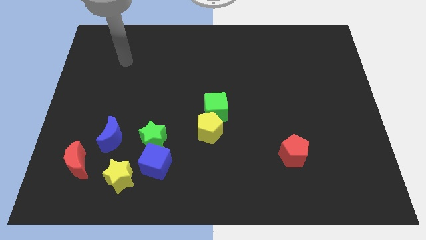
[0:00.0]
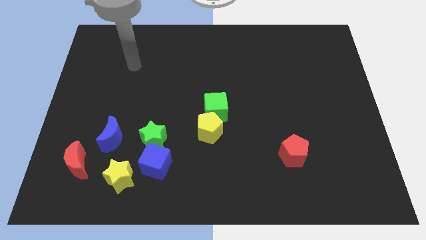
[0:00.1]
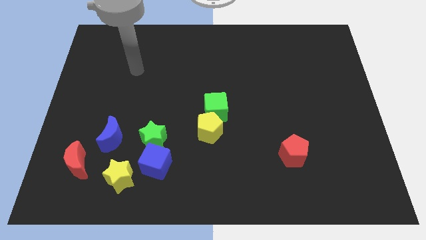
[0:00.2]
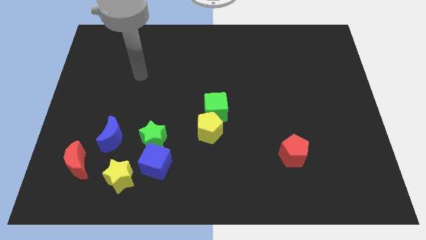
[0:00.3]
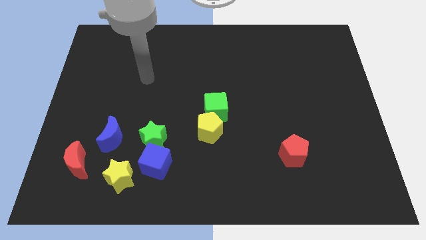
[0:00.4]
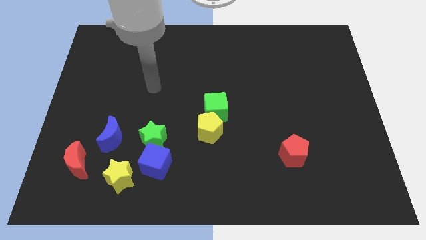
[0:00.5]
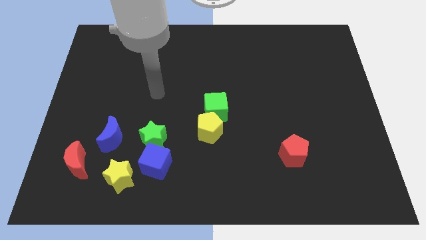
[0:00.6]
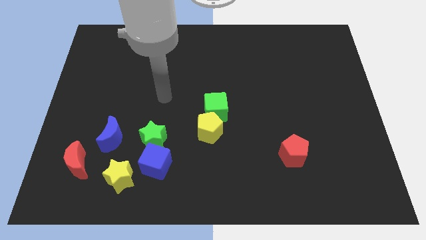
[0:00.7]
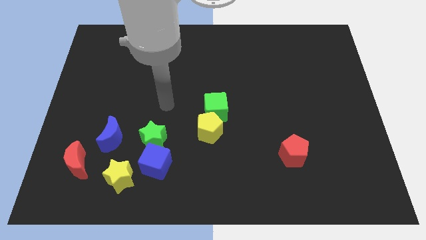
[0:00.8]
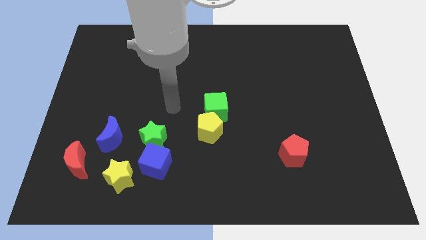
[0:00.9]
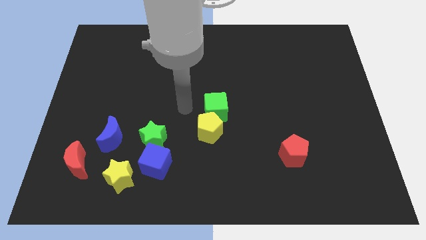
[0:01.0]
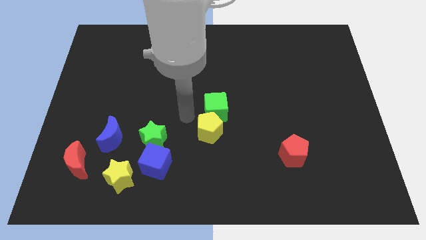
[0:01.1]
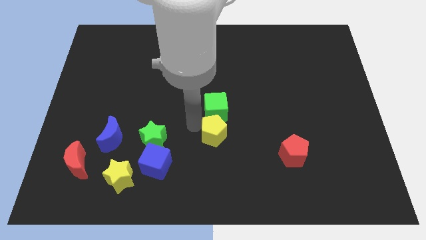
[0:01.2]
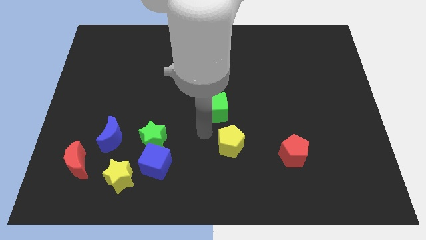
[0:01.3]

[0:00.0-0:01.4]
move the green cube away from the yellow pentagon

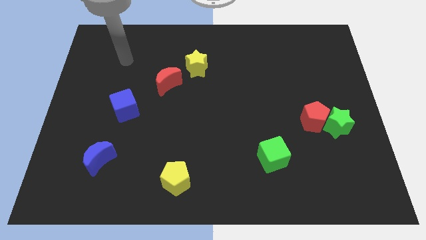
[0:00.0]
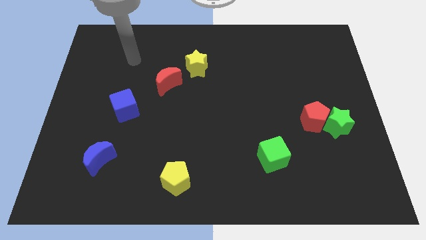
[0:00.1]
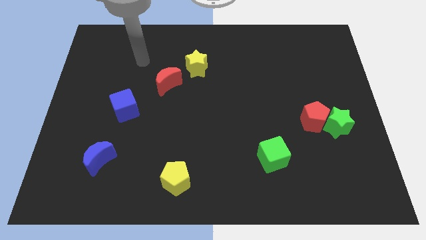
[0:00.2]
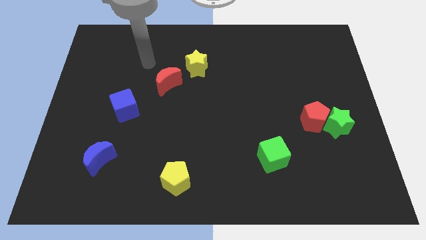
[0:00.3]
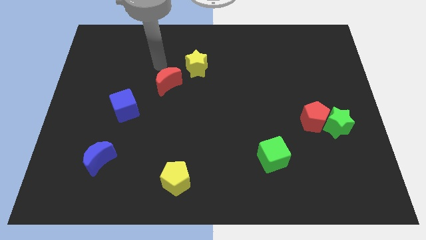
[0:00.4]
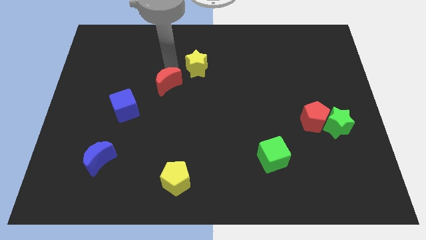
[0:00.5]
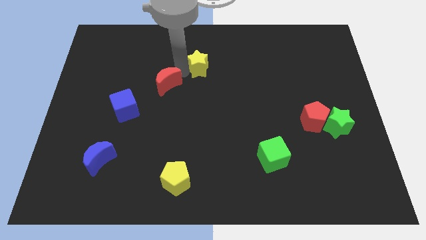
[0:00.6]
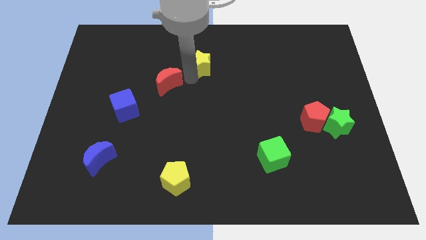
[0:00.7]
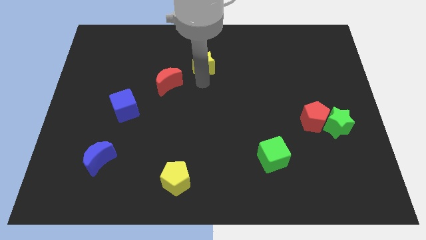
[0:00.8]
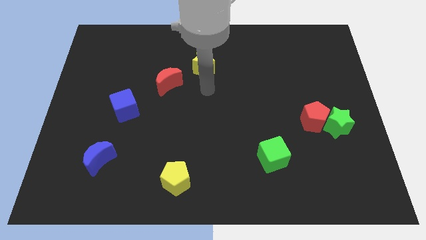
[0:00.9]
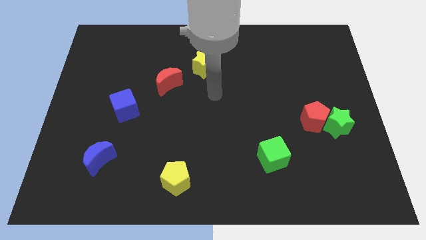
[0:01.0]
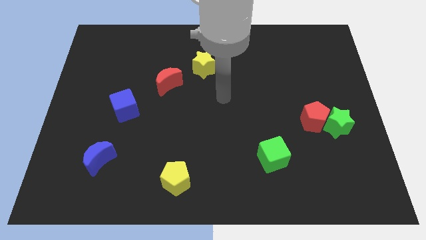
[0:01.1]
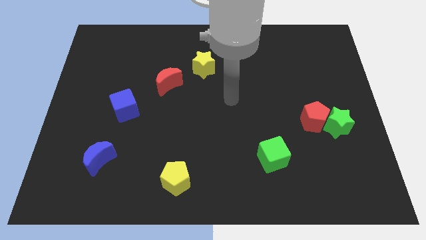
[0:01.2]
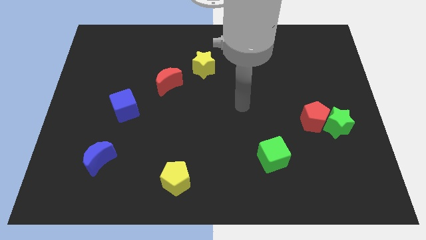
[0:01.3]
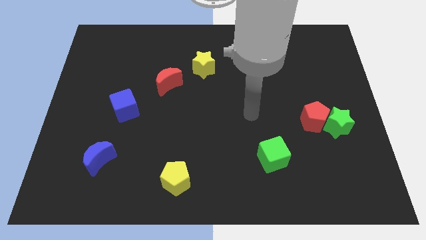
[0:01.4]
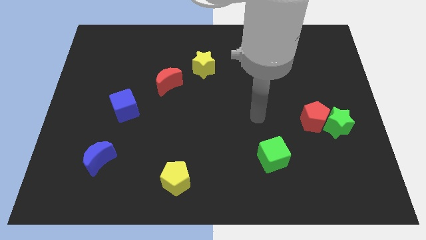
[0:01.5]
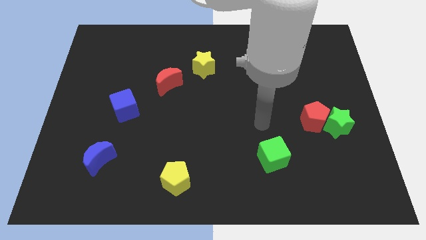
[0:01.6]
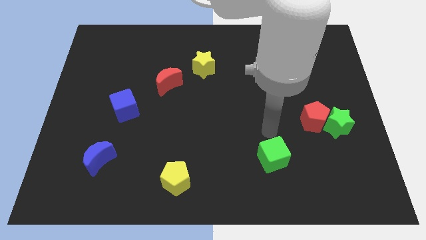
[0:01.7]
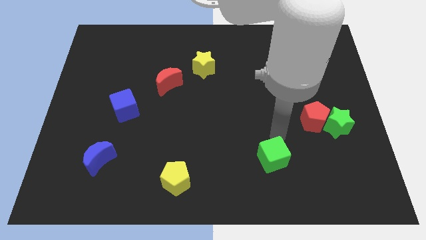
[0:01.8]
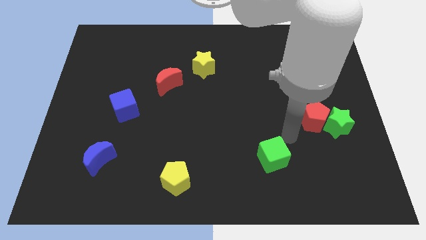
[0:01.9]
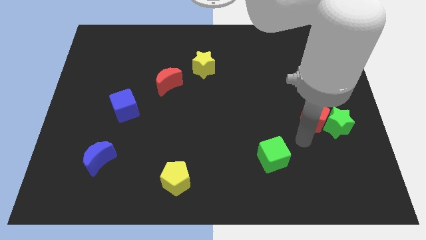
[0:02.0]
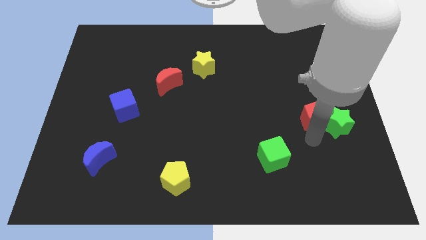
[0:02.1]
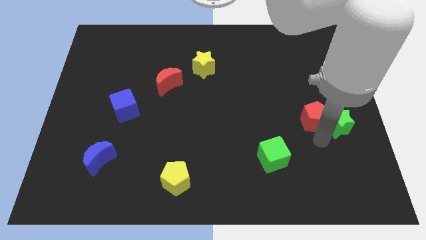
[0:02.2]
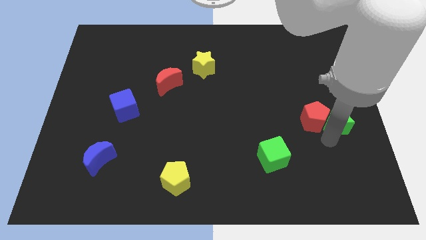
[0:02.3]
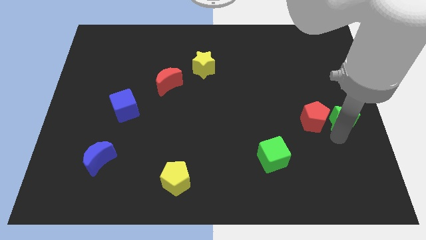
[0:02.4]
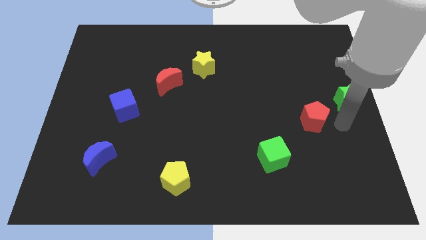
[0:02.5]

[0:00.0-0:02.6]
pull the red pentagon apart from the green star

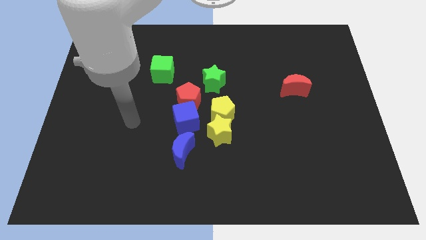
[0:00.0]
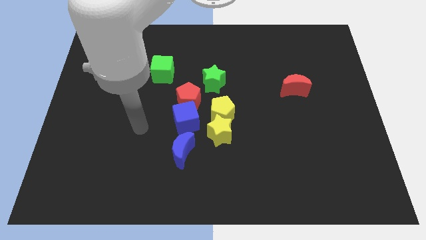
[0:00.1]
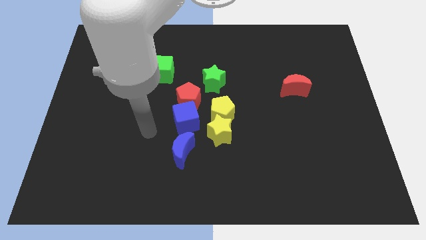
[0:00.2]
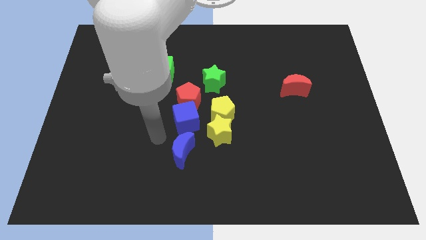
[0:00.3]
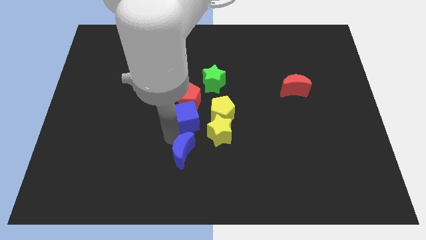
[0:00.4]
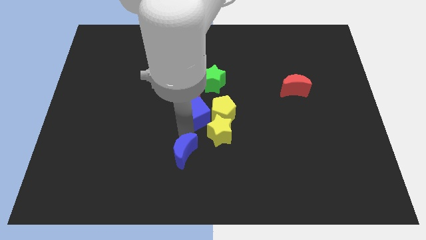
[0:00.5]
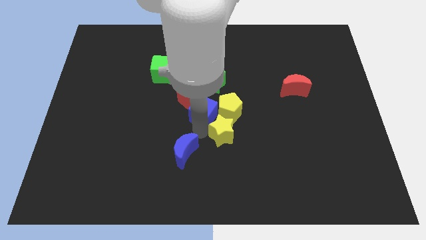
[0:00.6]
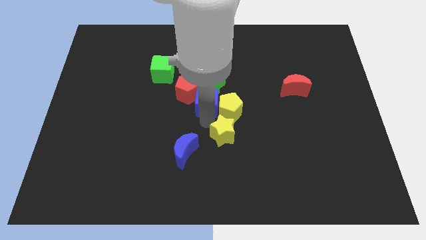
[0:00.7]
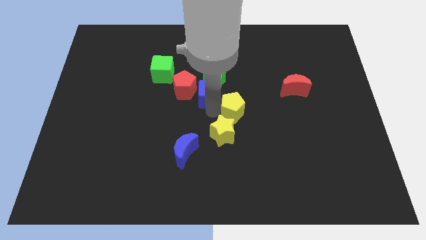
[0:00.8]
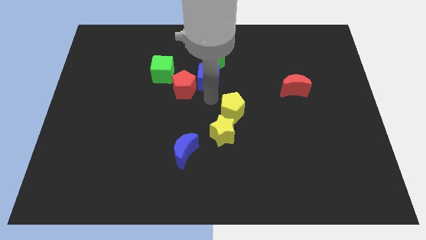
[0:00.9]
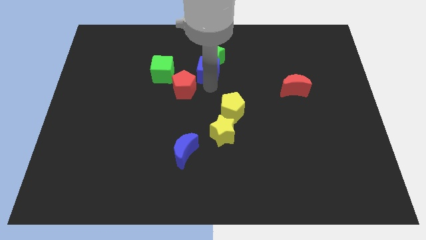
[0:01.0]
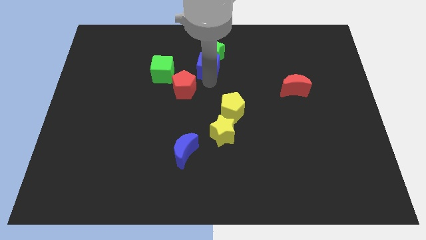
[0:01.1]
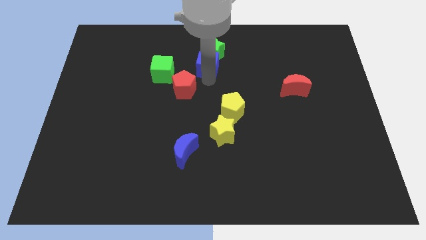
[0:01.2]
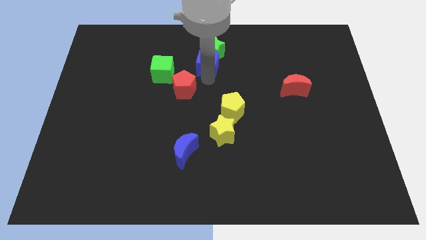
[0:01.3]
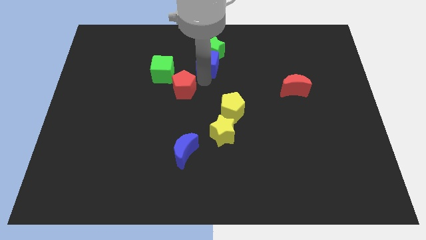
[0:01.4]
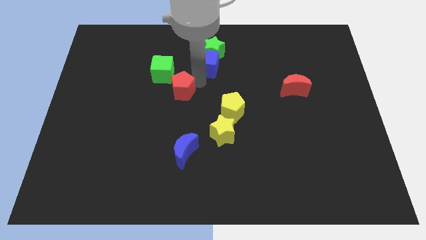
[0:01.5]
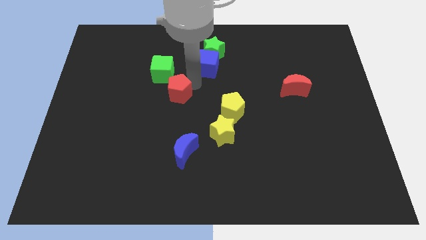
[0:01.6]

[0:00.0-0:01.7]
separate the red pentagon from the blue cube, green star, and yellow pentagon

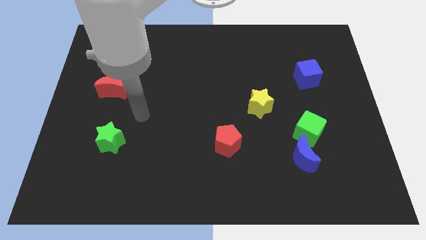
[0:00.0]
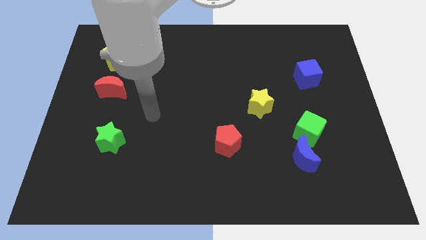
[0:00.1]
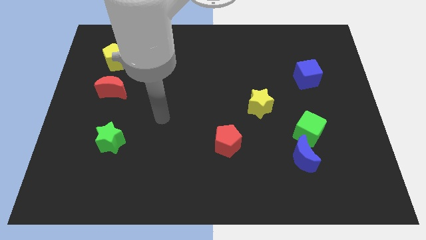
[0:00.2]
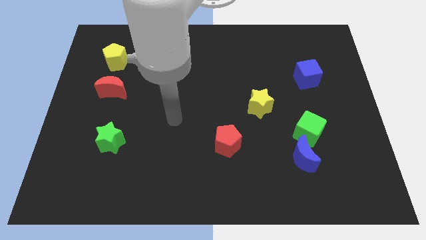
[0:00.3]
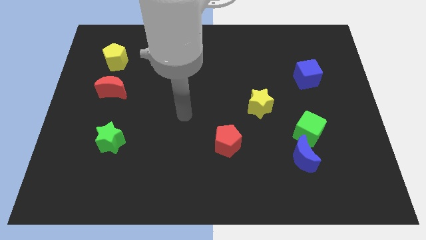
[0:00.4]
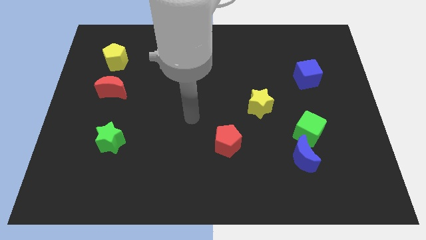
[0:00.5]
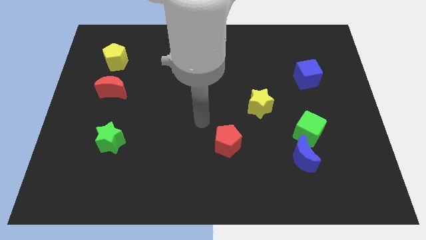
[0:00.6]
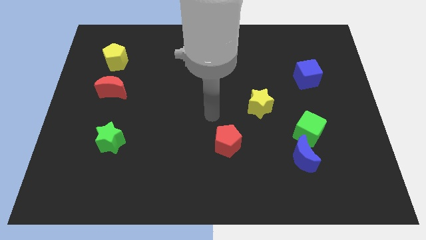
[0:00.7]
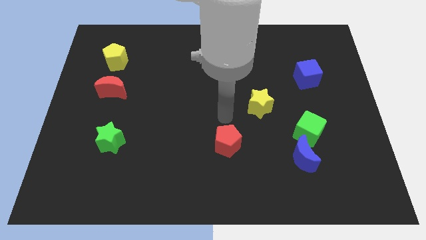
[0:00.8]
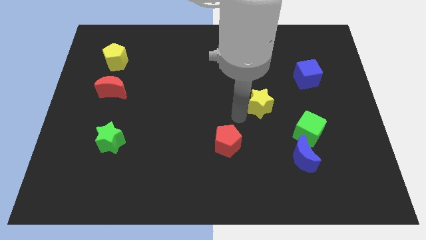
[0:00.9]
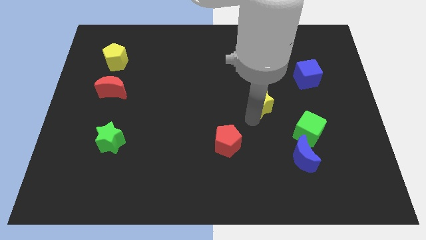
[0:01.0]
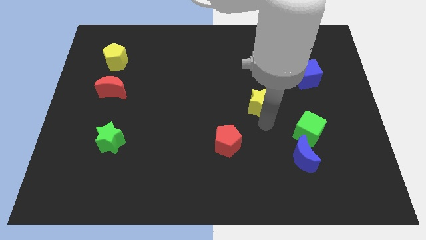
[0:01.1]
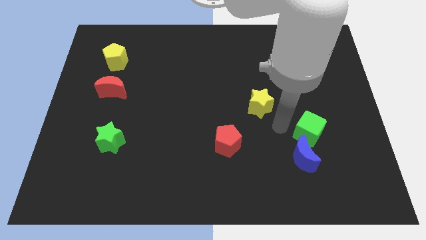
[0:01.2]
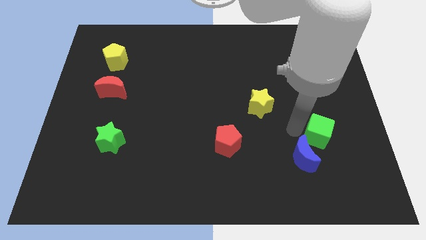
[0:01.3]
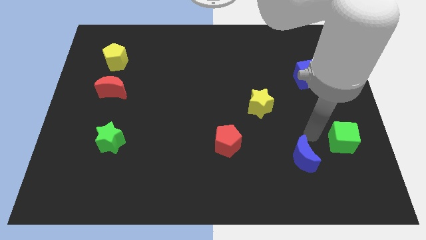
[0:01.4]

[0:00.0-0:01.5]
pull the blue moon apart from the green cube

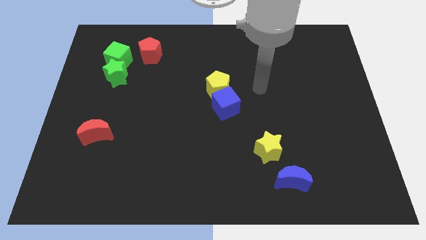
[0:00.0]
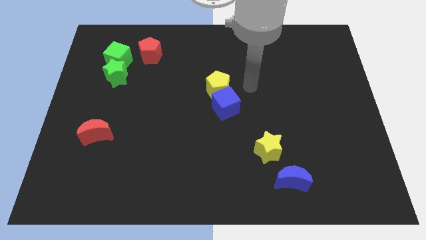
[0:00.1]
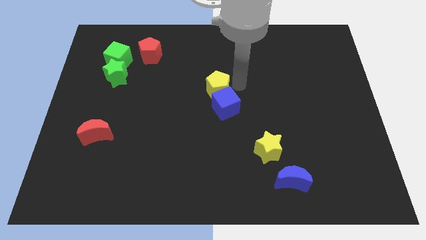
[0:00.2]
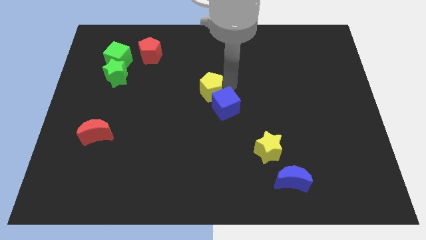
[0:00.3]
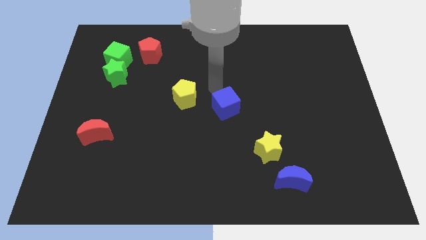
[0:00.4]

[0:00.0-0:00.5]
pull the blue cube apart from the yellow pentagon

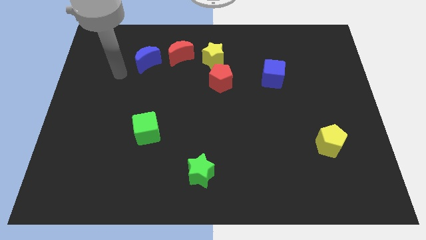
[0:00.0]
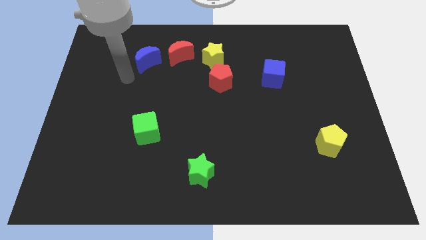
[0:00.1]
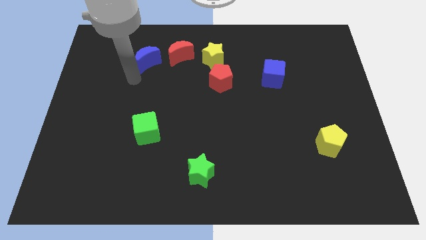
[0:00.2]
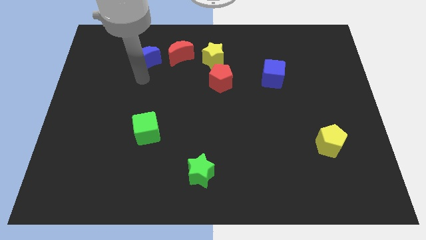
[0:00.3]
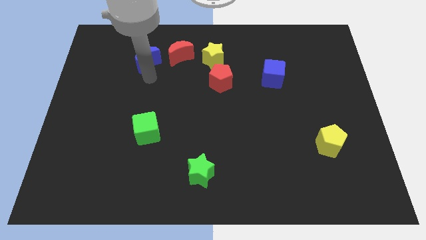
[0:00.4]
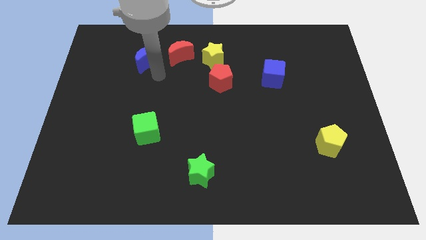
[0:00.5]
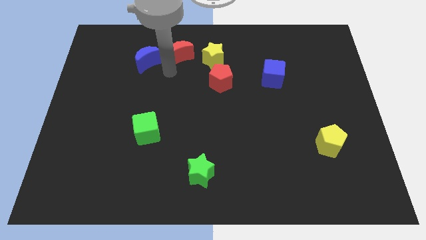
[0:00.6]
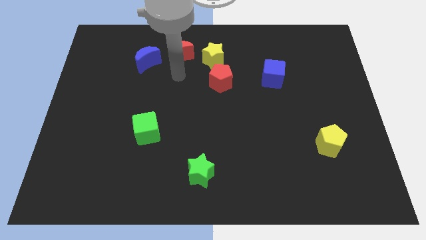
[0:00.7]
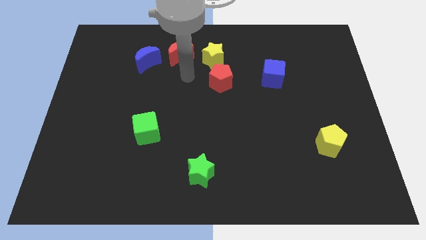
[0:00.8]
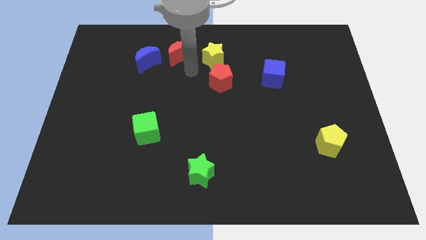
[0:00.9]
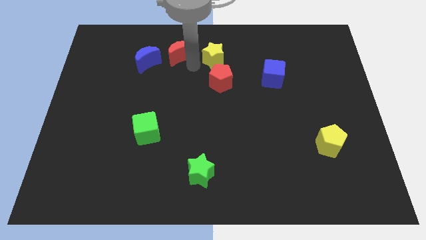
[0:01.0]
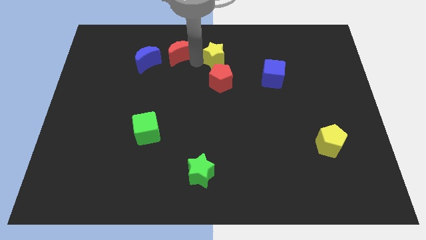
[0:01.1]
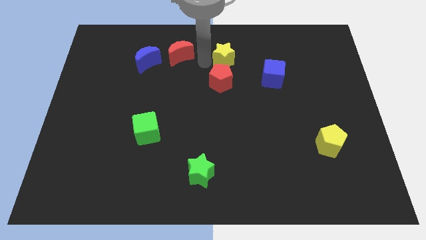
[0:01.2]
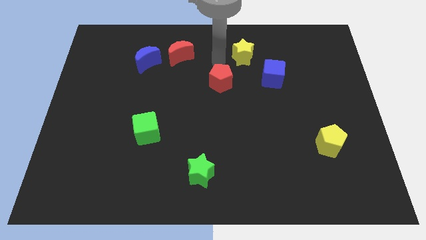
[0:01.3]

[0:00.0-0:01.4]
move the red pentagon away from the yellow star
